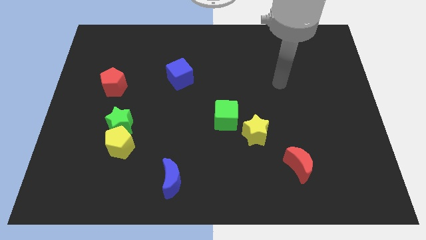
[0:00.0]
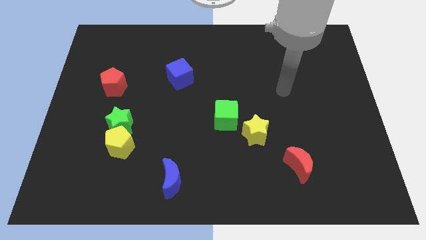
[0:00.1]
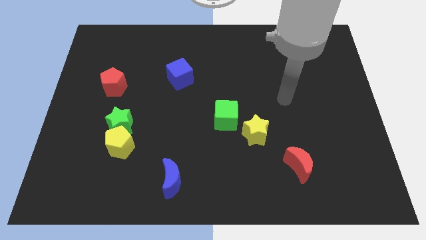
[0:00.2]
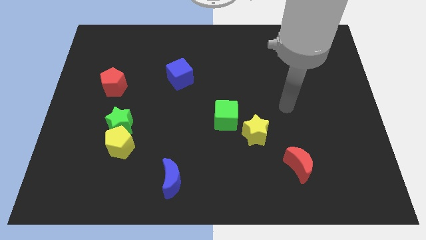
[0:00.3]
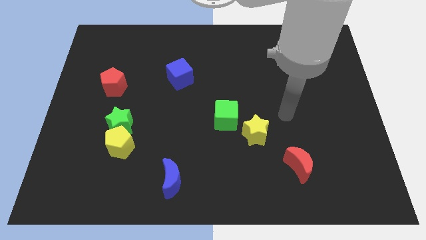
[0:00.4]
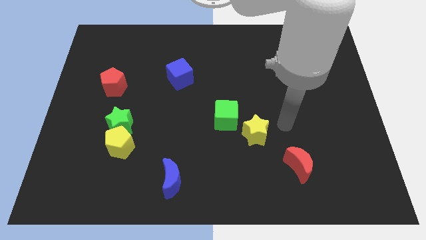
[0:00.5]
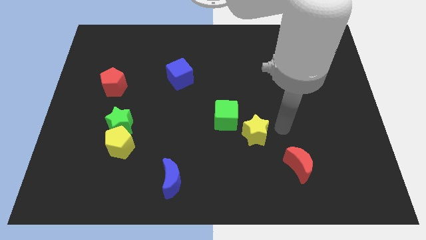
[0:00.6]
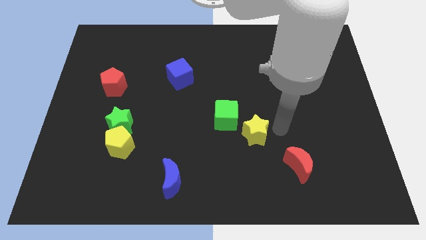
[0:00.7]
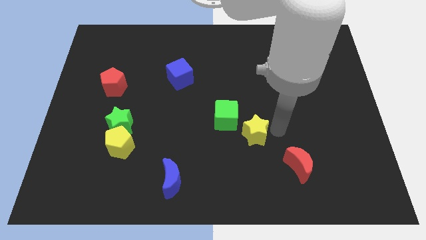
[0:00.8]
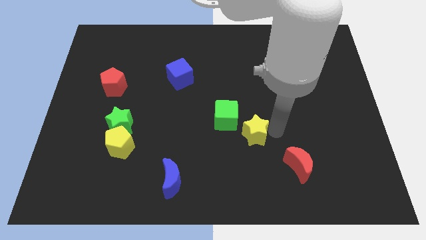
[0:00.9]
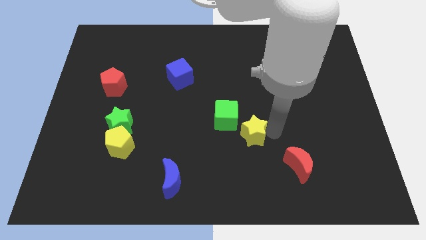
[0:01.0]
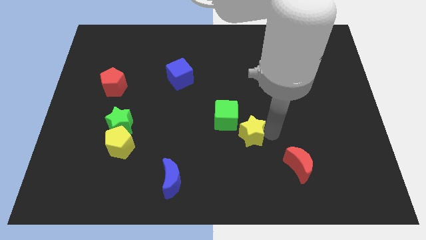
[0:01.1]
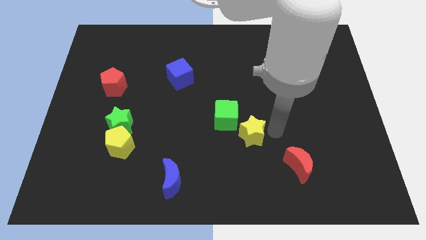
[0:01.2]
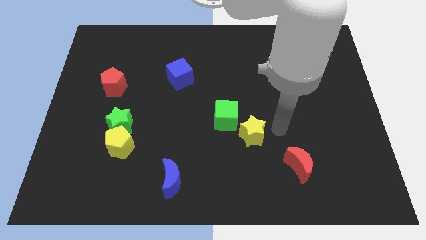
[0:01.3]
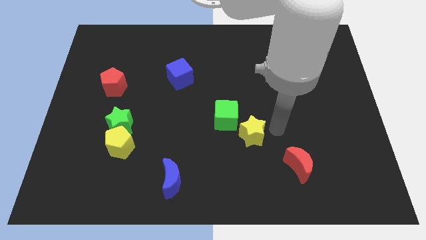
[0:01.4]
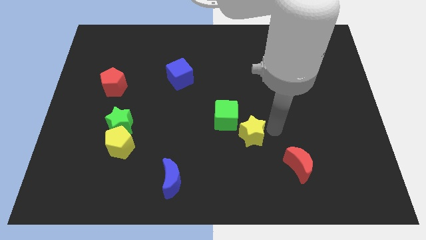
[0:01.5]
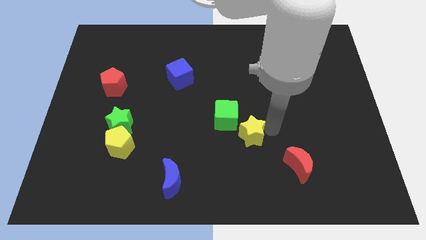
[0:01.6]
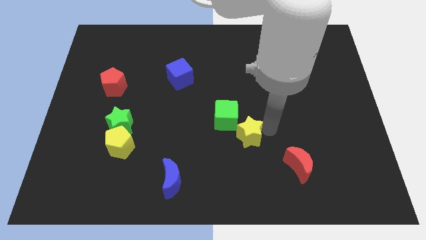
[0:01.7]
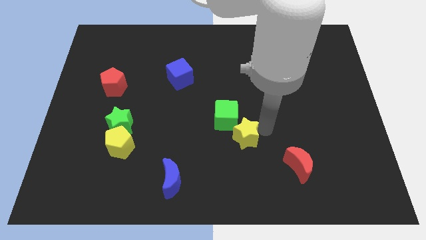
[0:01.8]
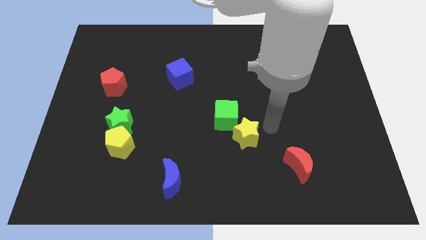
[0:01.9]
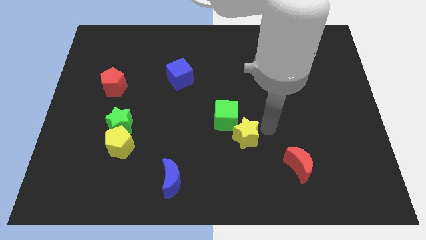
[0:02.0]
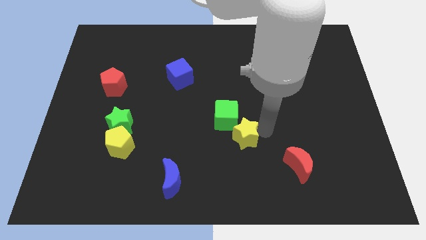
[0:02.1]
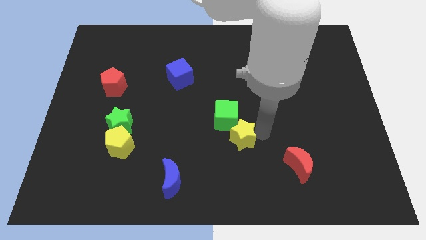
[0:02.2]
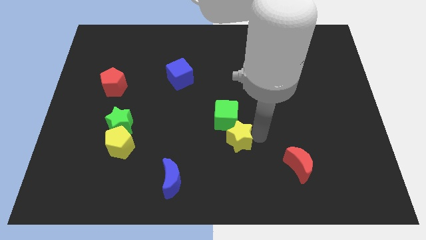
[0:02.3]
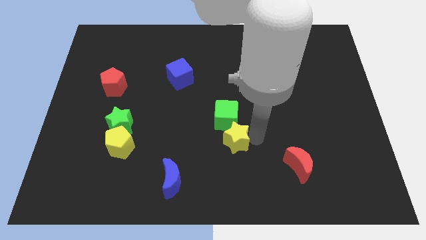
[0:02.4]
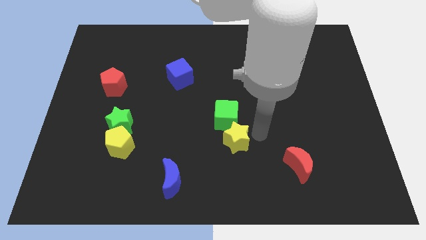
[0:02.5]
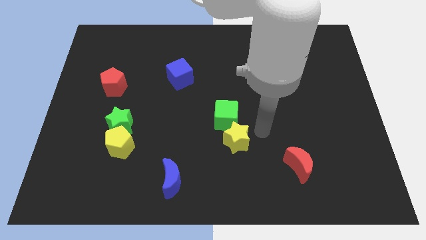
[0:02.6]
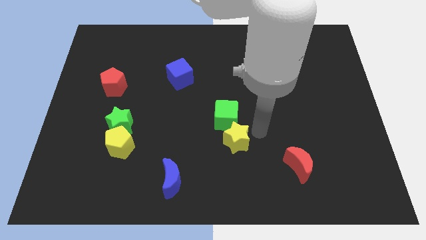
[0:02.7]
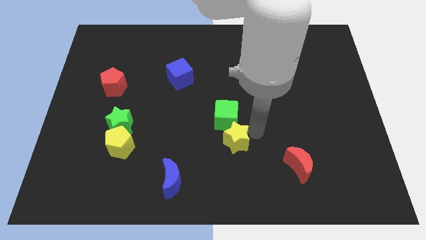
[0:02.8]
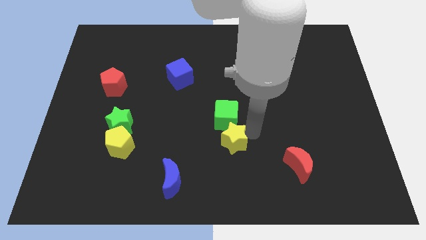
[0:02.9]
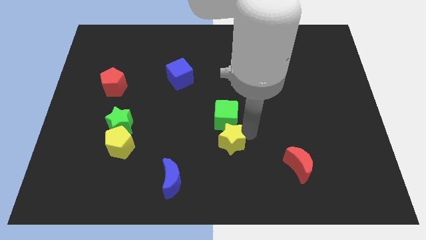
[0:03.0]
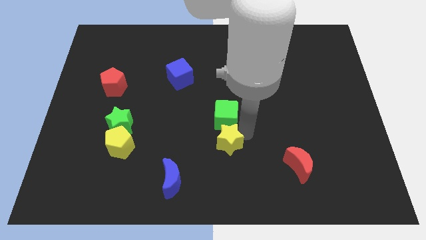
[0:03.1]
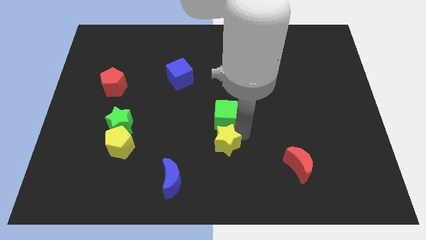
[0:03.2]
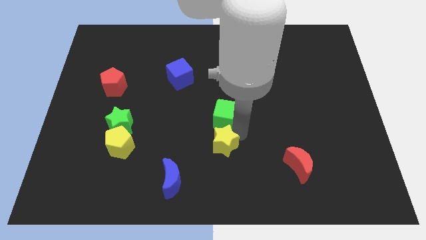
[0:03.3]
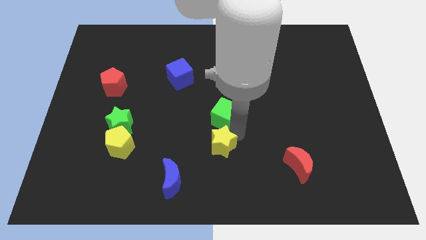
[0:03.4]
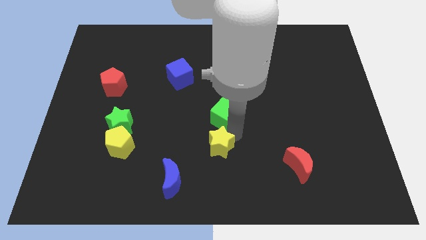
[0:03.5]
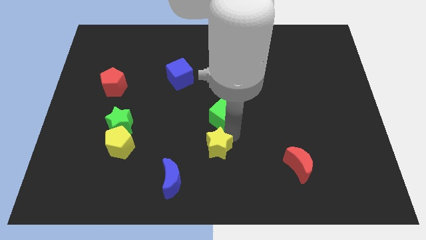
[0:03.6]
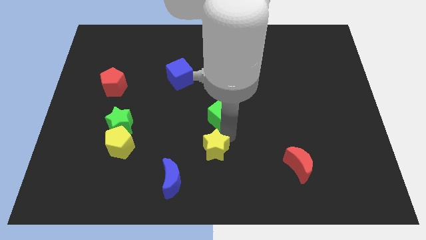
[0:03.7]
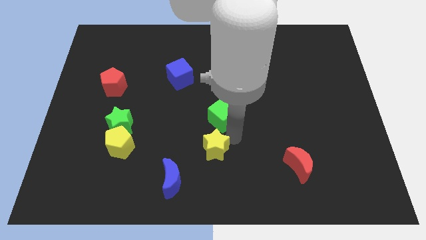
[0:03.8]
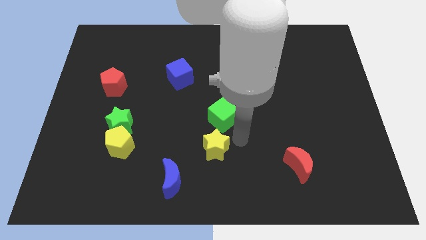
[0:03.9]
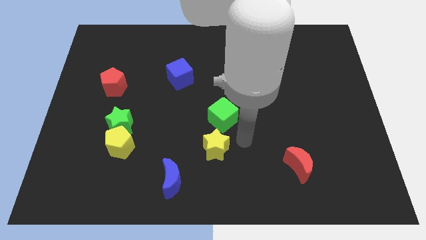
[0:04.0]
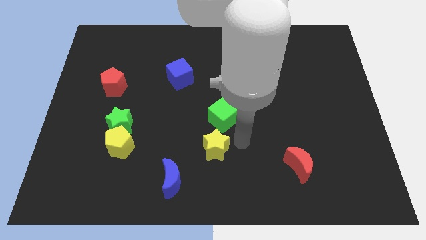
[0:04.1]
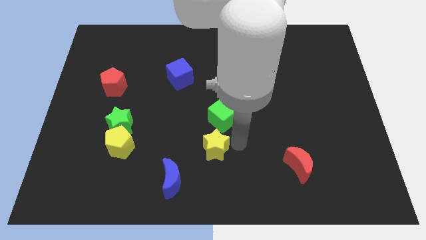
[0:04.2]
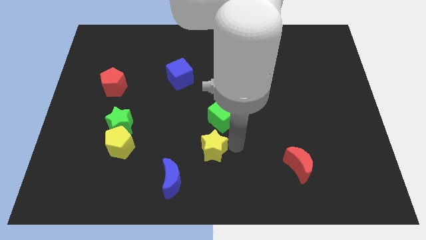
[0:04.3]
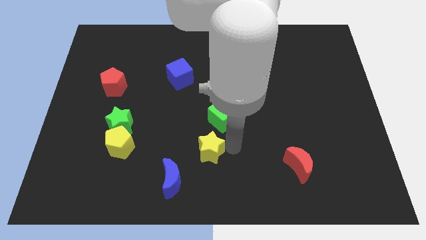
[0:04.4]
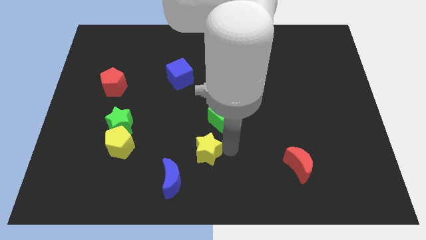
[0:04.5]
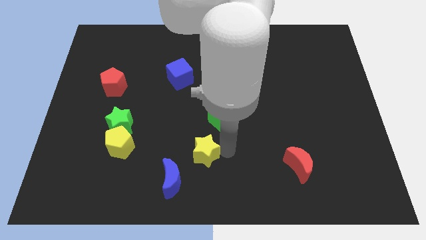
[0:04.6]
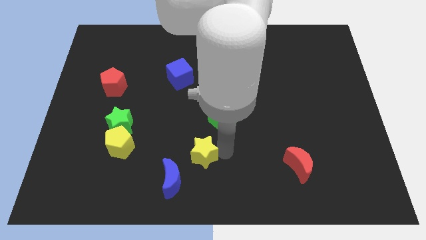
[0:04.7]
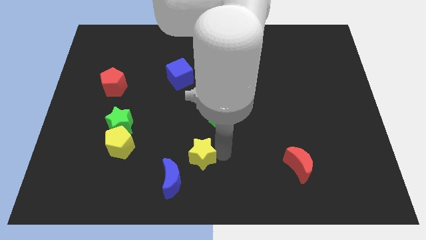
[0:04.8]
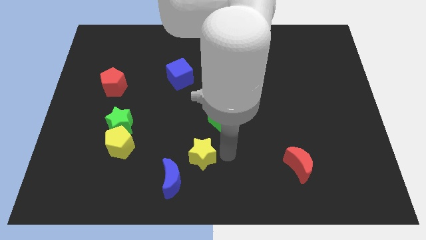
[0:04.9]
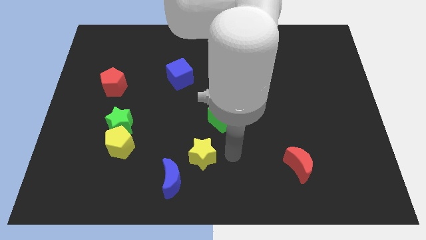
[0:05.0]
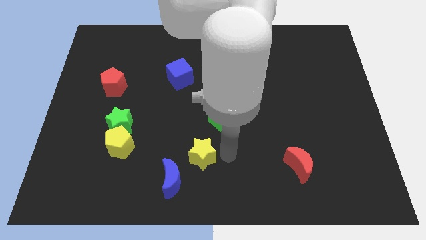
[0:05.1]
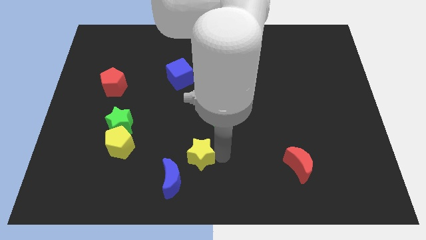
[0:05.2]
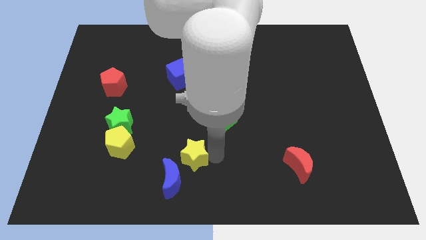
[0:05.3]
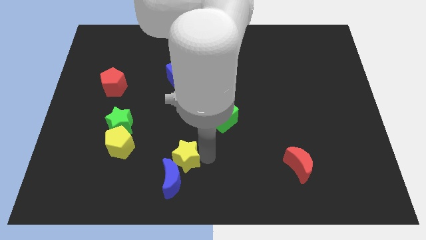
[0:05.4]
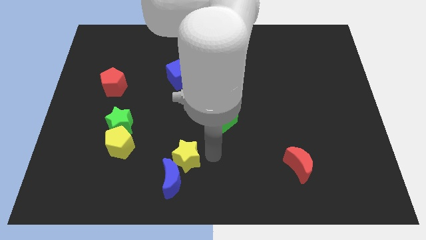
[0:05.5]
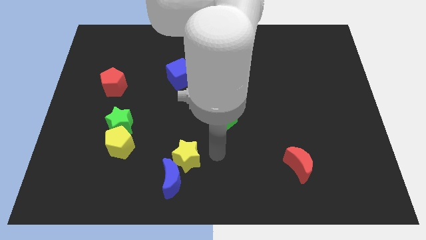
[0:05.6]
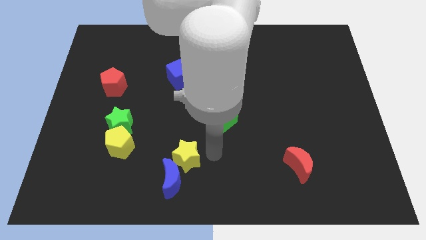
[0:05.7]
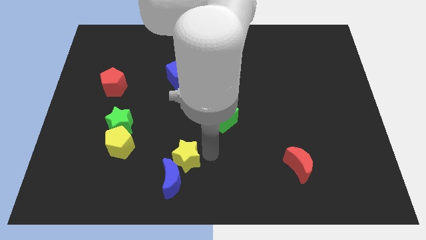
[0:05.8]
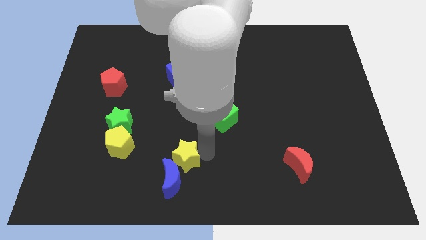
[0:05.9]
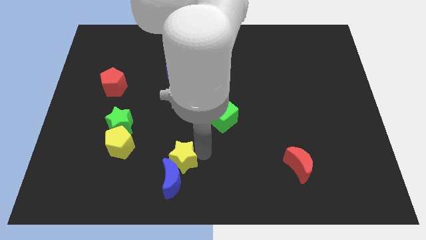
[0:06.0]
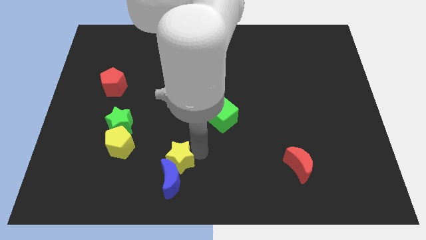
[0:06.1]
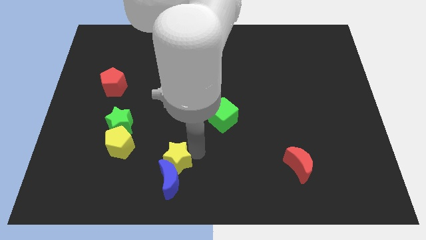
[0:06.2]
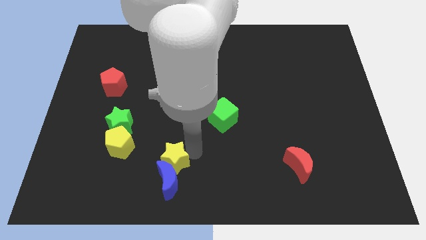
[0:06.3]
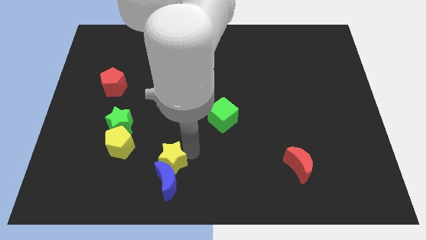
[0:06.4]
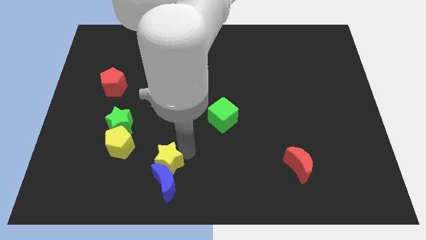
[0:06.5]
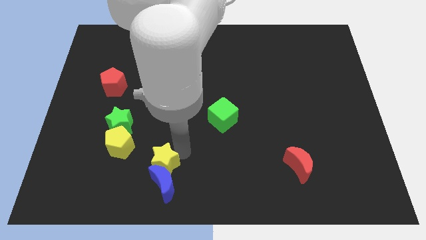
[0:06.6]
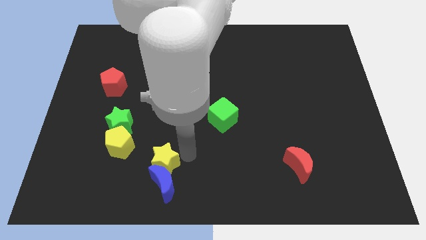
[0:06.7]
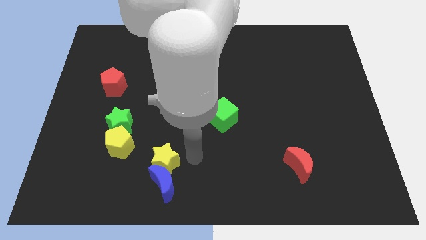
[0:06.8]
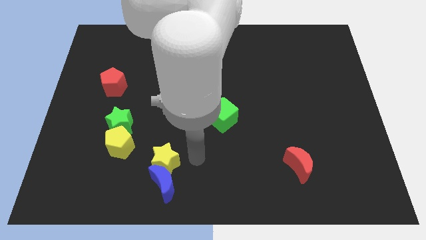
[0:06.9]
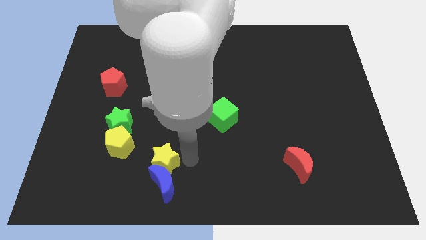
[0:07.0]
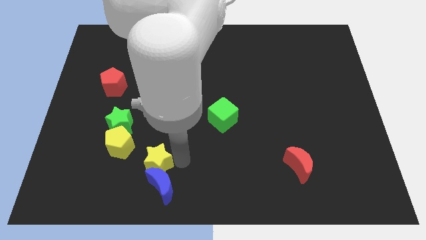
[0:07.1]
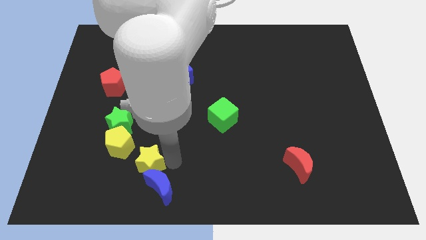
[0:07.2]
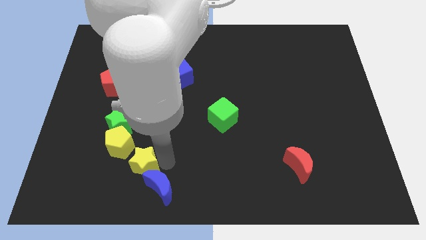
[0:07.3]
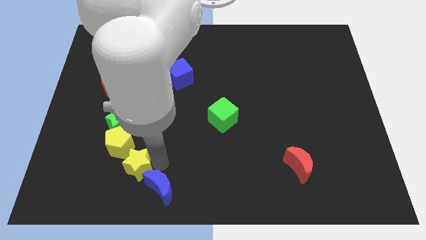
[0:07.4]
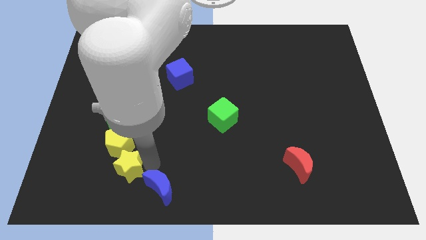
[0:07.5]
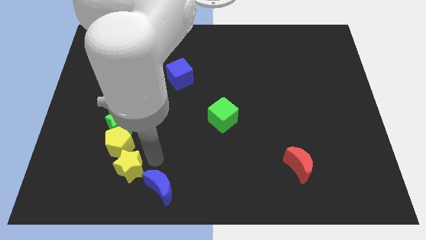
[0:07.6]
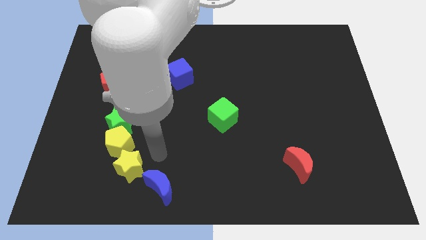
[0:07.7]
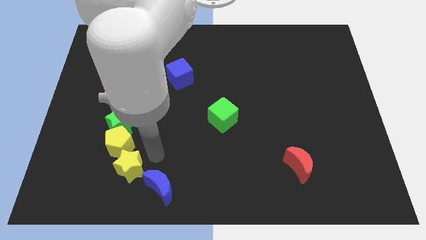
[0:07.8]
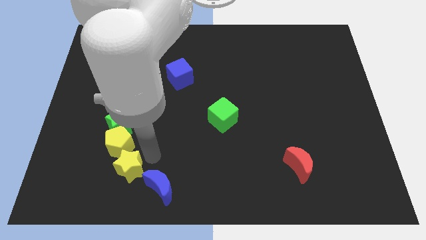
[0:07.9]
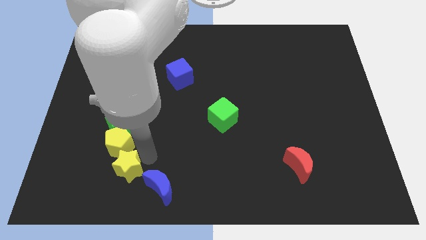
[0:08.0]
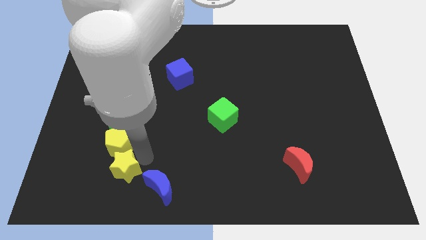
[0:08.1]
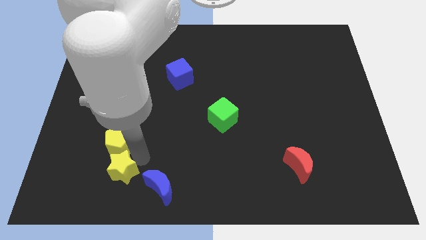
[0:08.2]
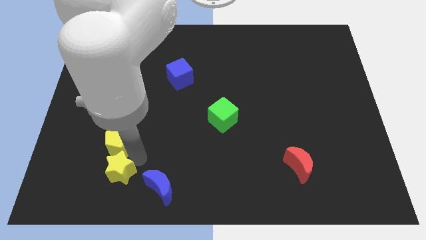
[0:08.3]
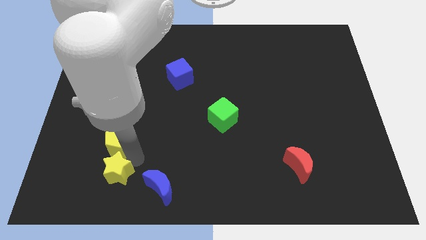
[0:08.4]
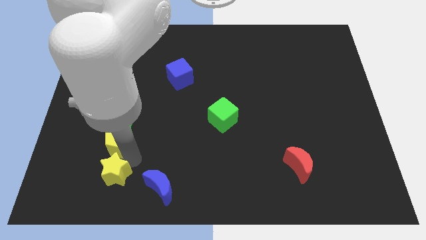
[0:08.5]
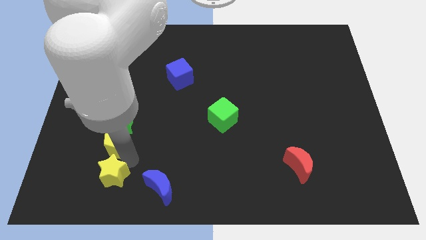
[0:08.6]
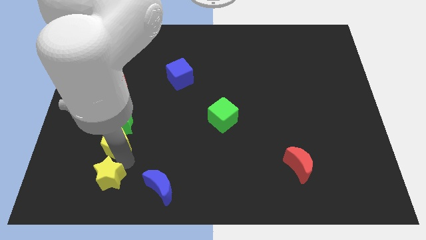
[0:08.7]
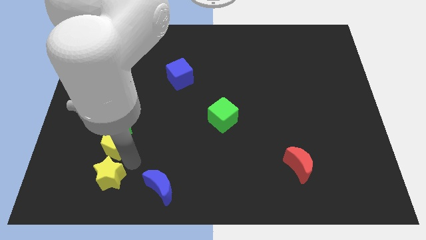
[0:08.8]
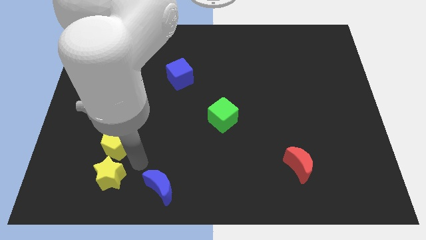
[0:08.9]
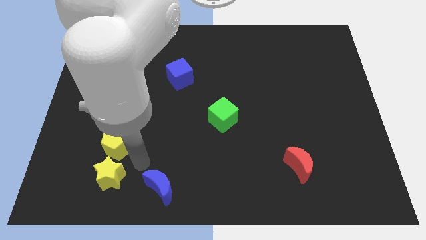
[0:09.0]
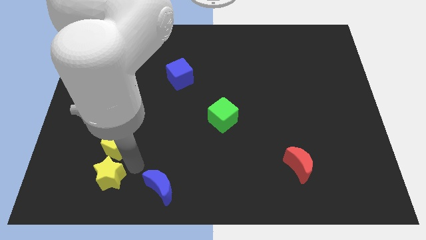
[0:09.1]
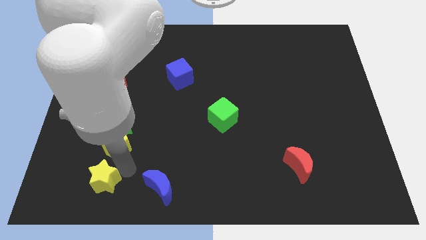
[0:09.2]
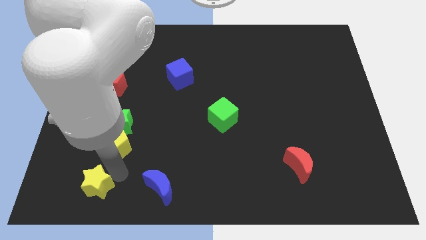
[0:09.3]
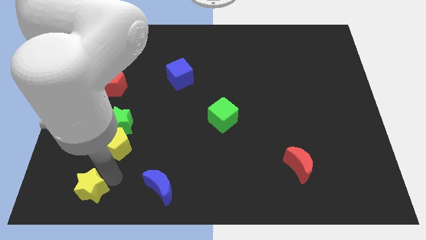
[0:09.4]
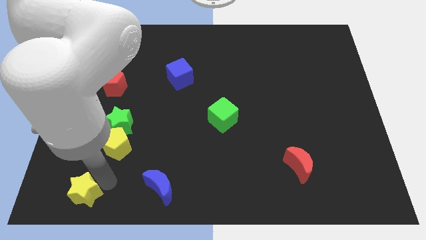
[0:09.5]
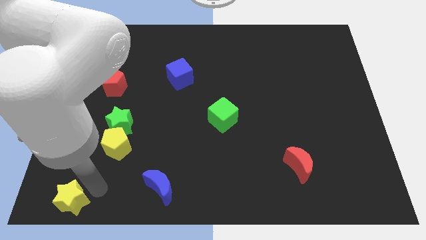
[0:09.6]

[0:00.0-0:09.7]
push the yellow star to the bottom left corner
